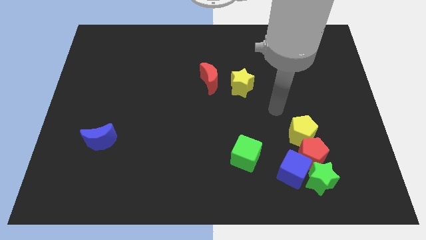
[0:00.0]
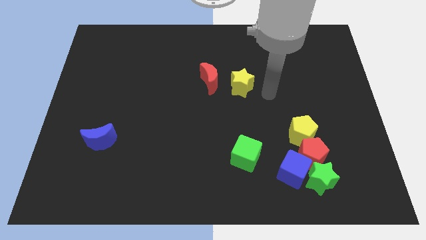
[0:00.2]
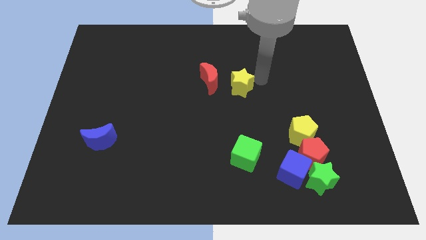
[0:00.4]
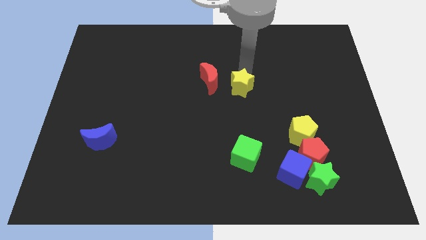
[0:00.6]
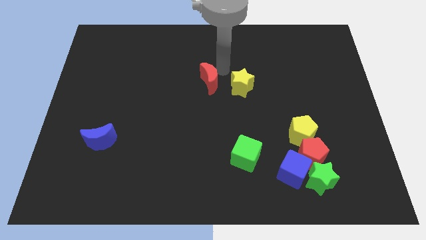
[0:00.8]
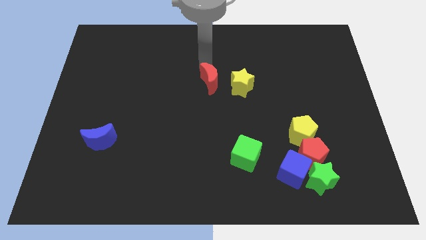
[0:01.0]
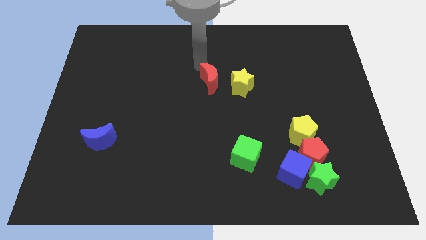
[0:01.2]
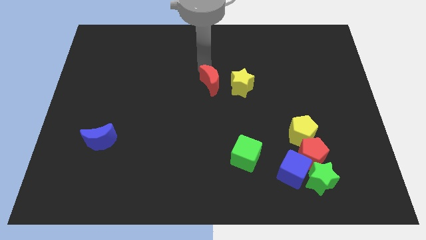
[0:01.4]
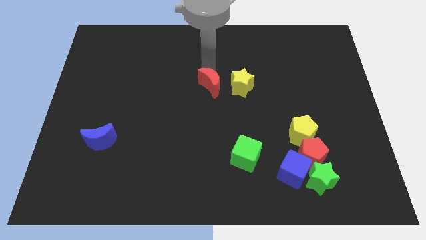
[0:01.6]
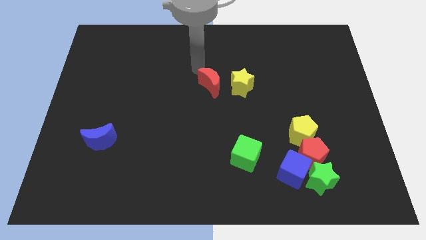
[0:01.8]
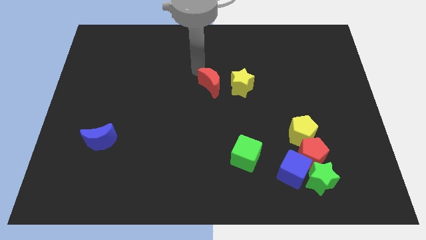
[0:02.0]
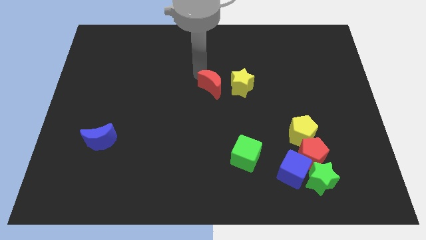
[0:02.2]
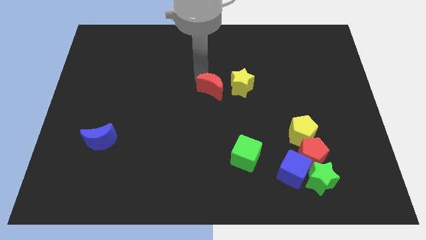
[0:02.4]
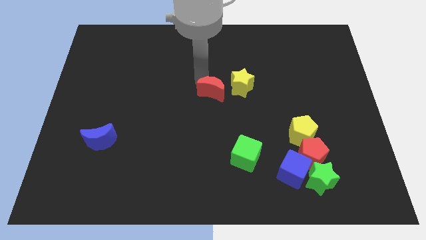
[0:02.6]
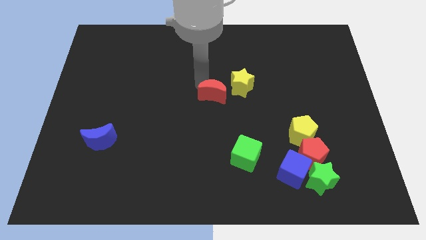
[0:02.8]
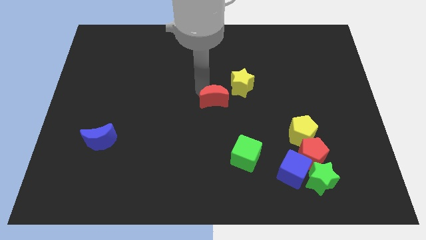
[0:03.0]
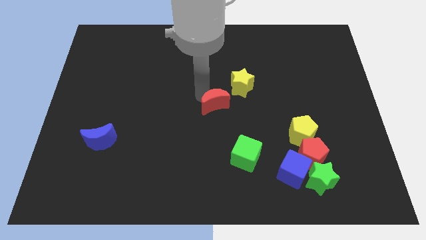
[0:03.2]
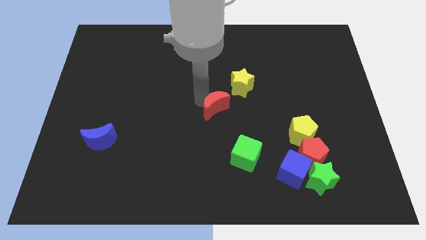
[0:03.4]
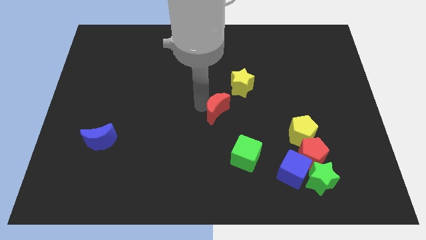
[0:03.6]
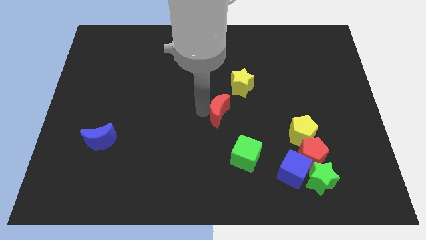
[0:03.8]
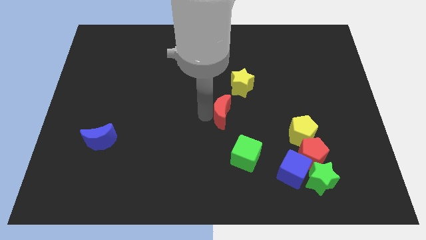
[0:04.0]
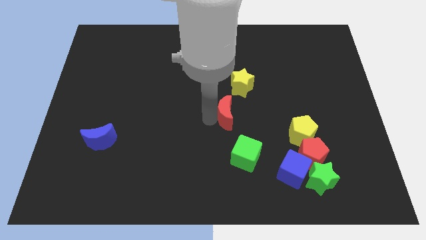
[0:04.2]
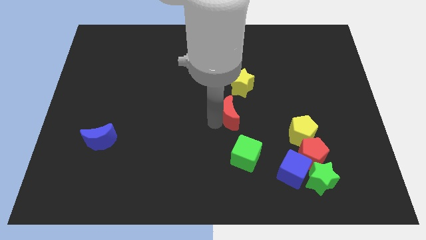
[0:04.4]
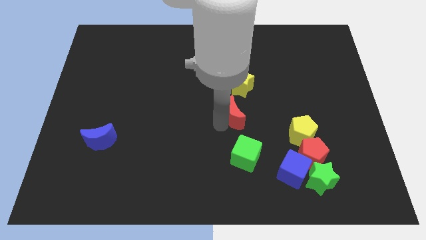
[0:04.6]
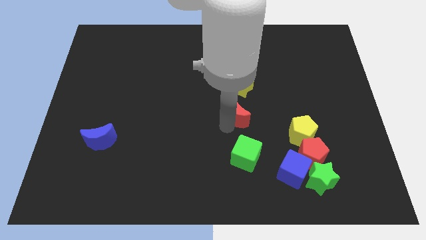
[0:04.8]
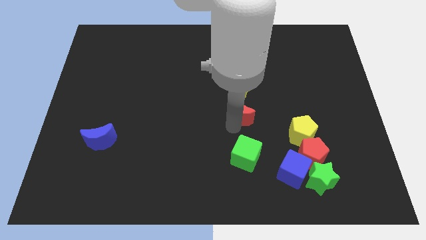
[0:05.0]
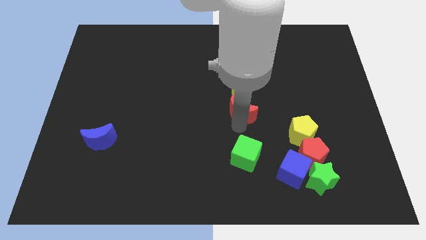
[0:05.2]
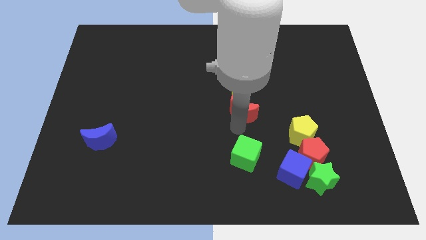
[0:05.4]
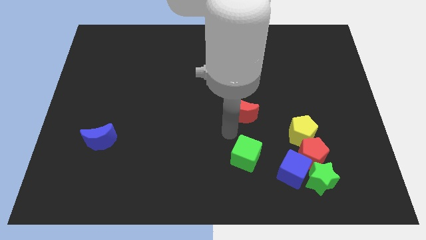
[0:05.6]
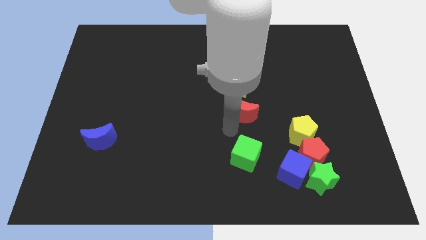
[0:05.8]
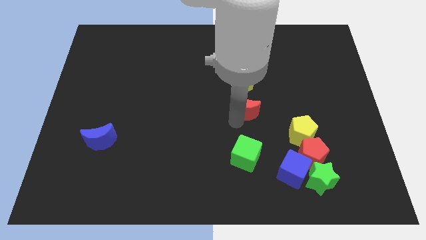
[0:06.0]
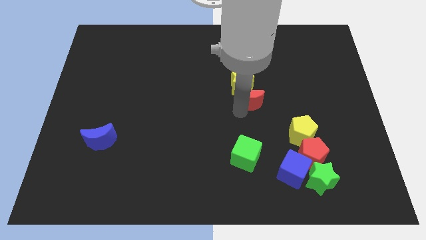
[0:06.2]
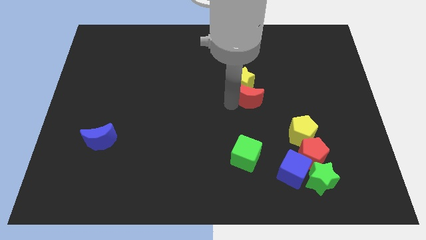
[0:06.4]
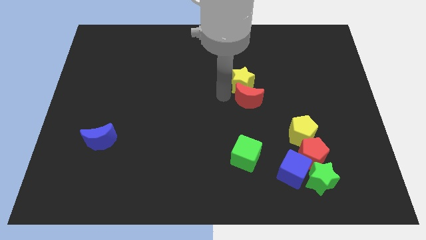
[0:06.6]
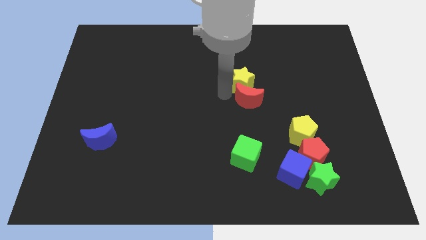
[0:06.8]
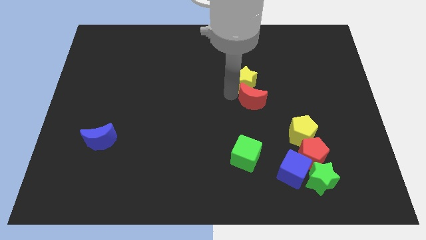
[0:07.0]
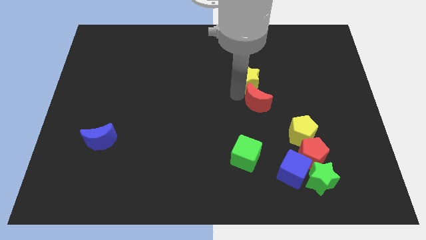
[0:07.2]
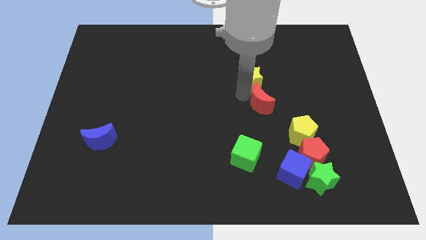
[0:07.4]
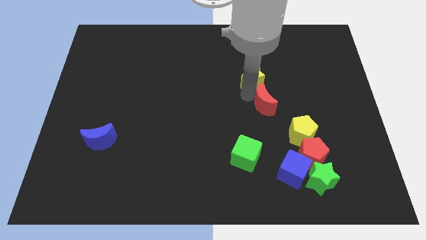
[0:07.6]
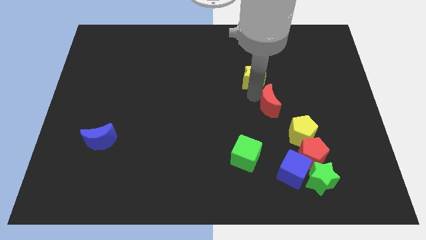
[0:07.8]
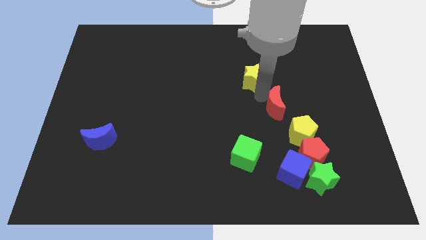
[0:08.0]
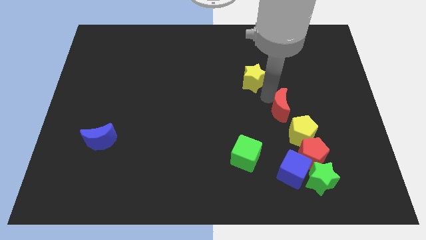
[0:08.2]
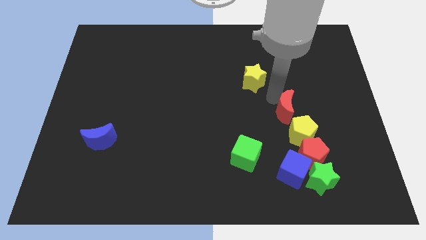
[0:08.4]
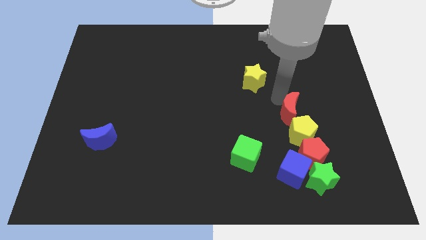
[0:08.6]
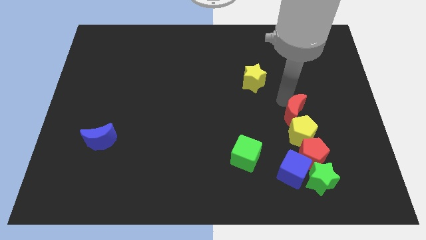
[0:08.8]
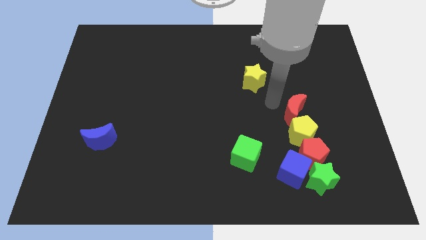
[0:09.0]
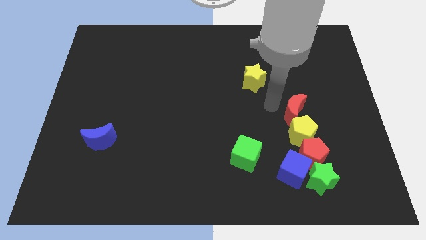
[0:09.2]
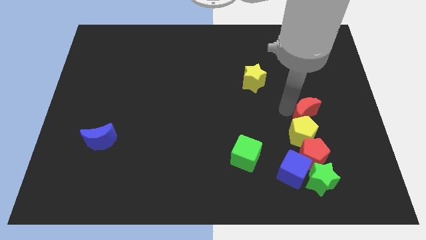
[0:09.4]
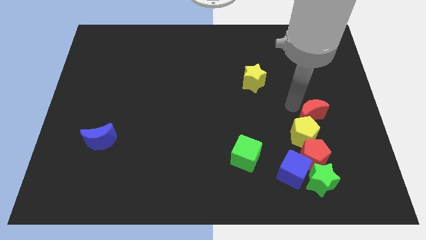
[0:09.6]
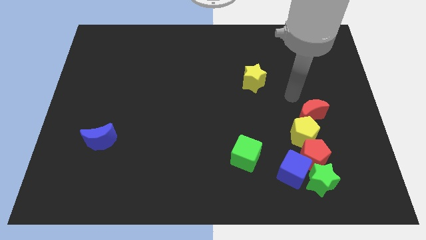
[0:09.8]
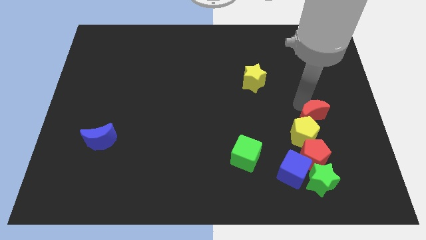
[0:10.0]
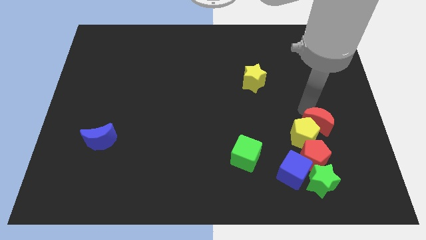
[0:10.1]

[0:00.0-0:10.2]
move the red moon to the top right side of the red pentagon

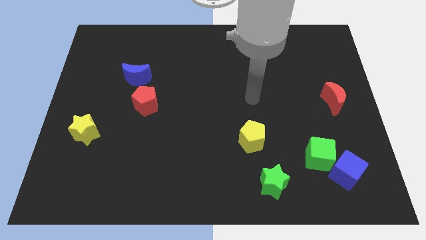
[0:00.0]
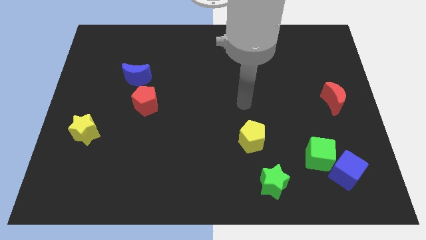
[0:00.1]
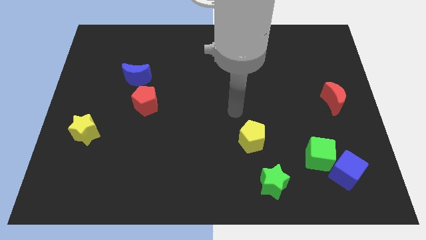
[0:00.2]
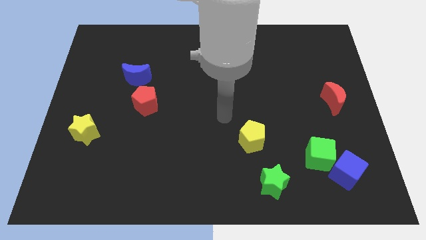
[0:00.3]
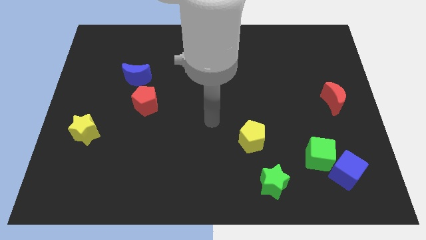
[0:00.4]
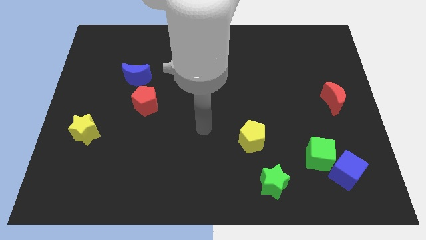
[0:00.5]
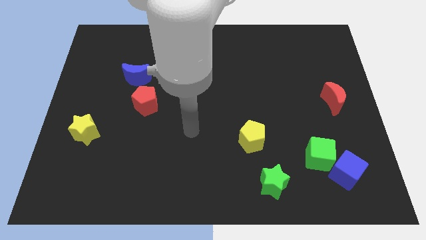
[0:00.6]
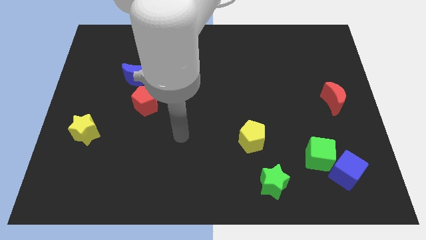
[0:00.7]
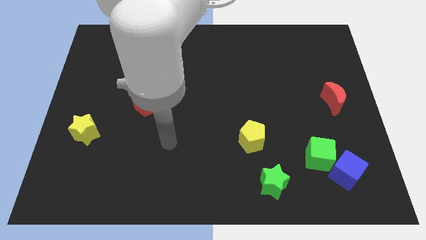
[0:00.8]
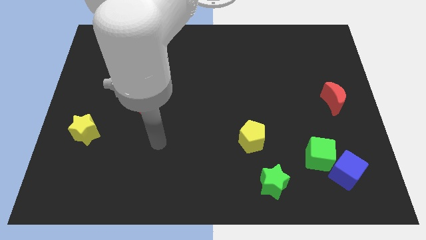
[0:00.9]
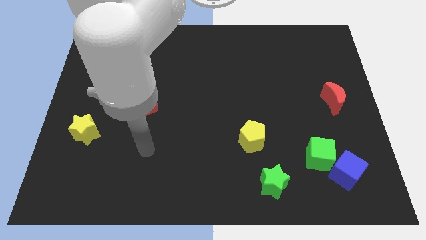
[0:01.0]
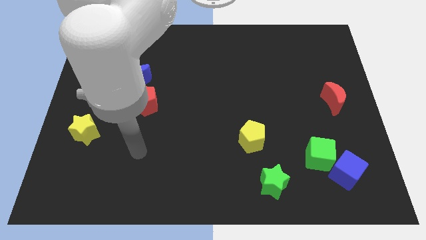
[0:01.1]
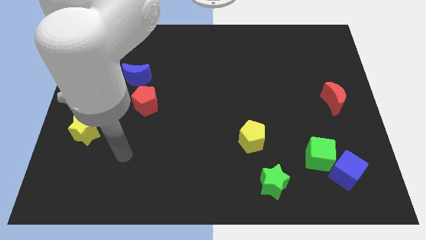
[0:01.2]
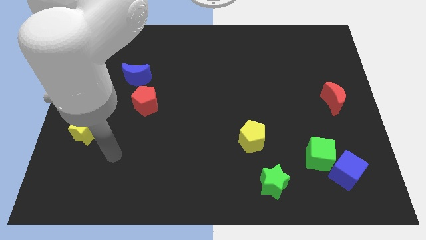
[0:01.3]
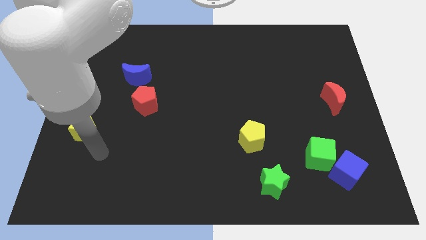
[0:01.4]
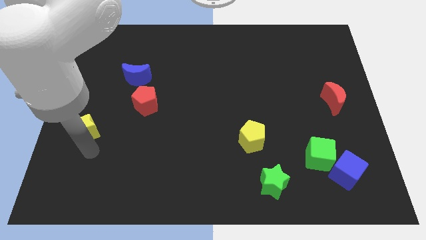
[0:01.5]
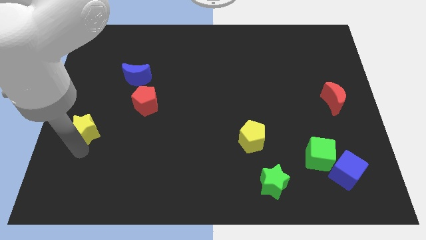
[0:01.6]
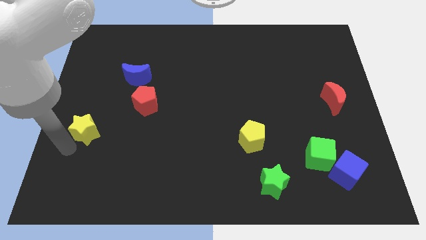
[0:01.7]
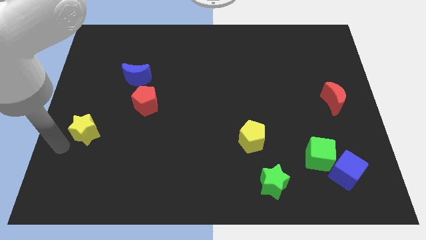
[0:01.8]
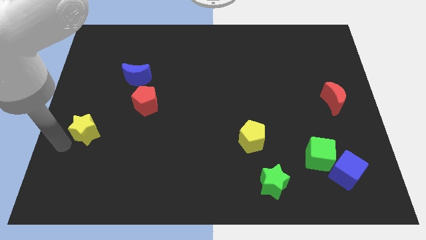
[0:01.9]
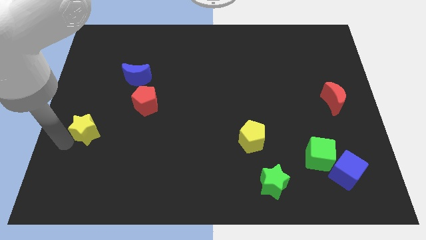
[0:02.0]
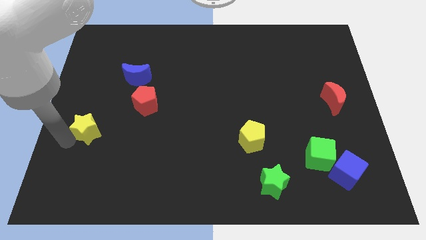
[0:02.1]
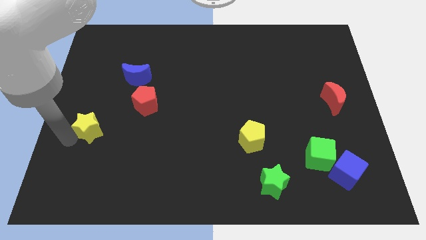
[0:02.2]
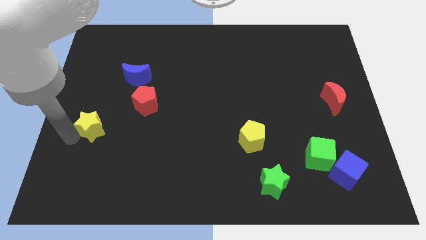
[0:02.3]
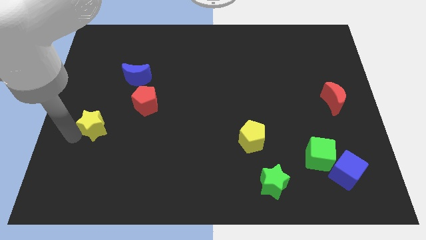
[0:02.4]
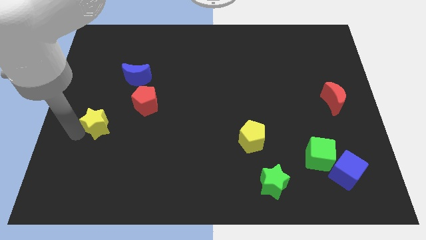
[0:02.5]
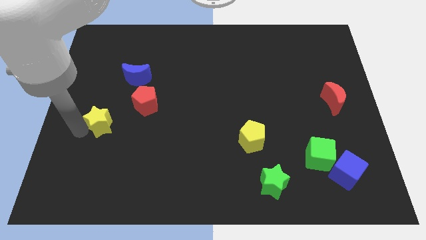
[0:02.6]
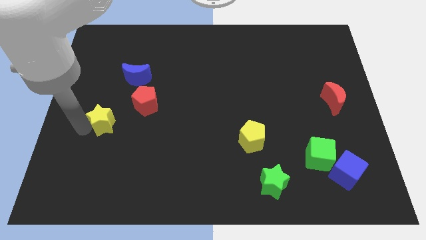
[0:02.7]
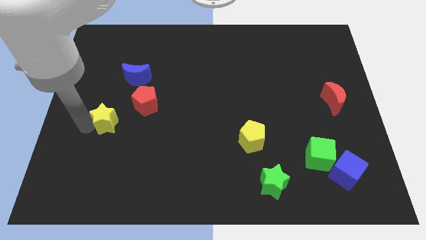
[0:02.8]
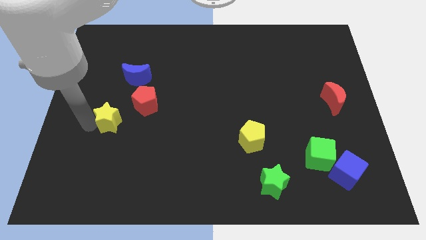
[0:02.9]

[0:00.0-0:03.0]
move the yellow star to the bottom of the blue moon
